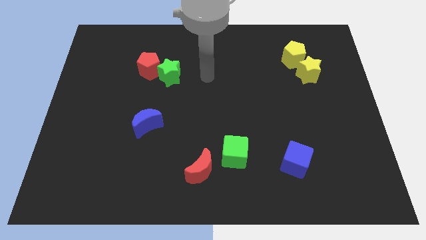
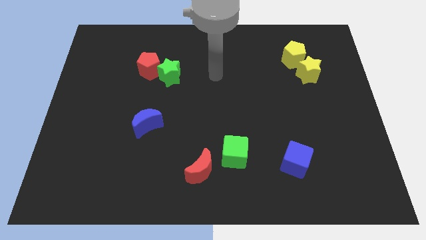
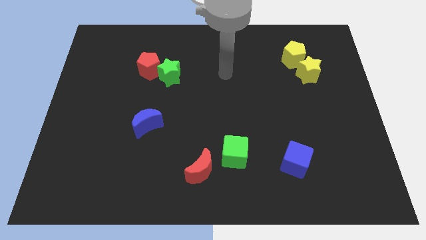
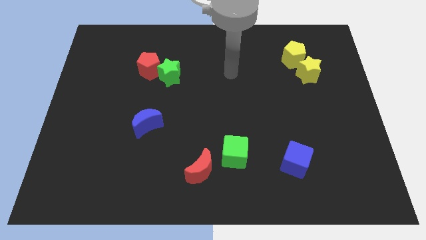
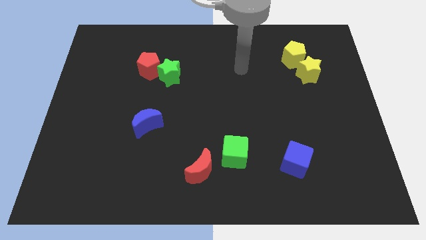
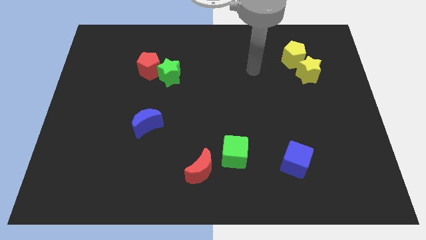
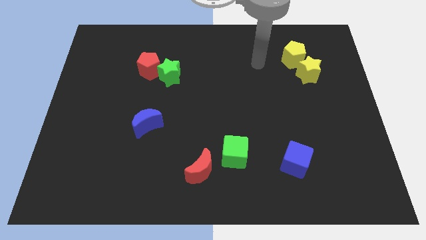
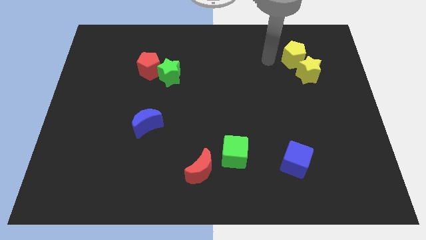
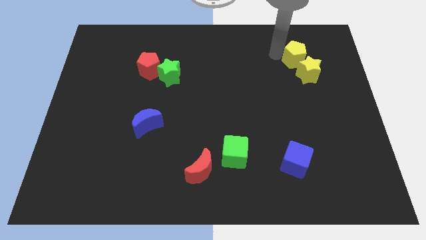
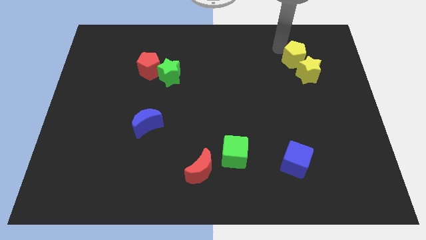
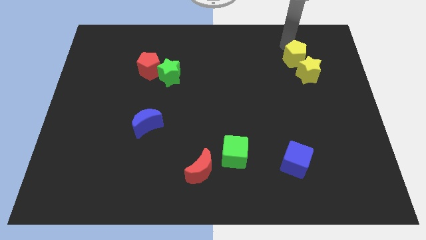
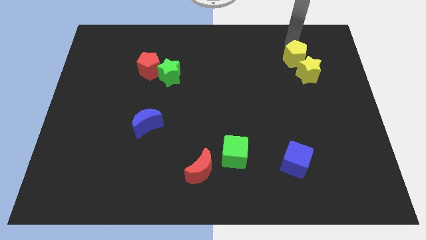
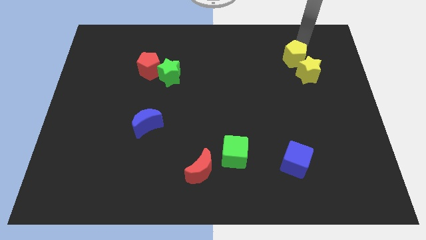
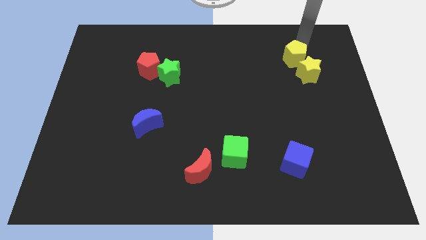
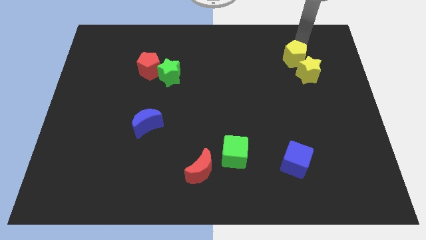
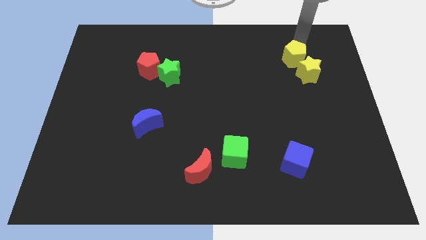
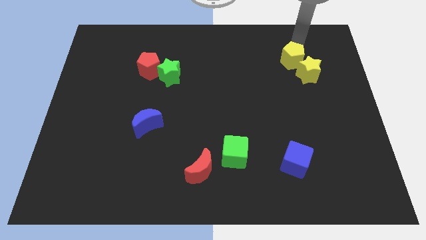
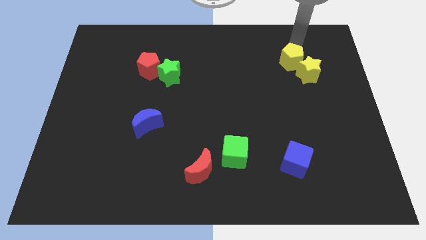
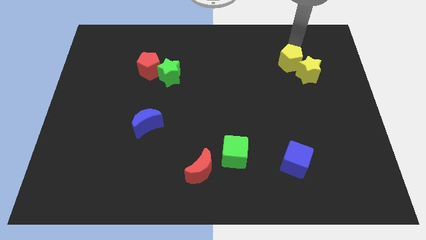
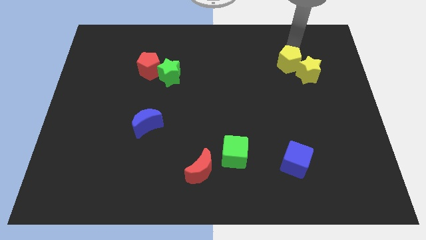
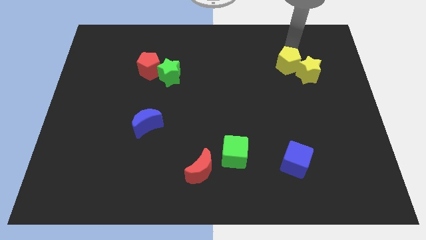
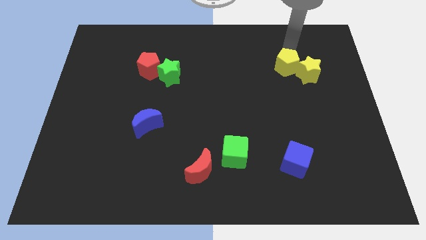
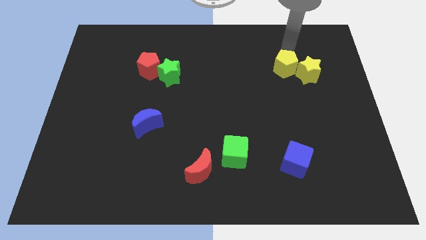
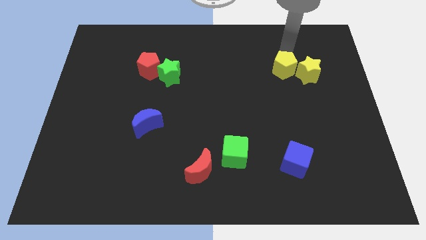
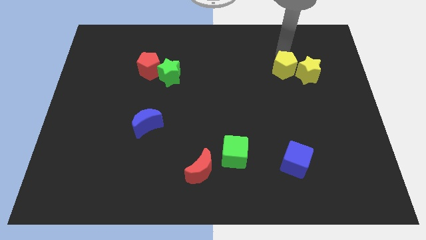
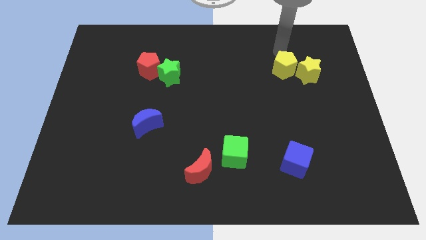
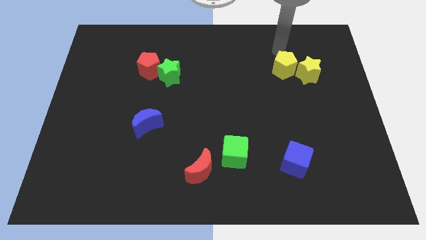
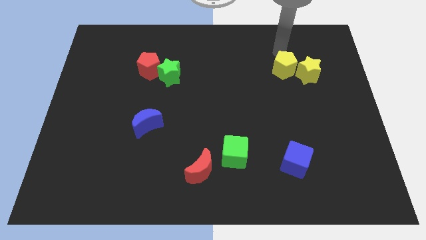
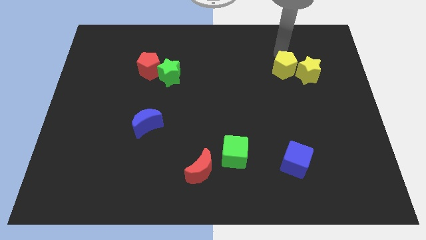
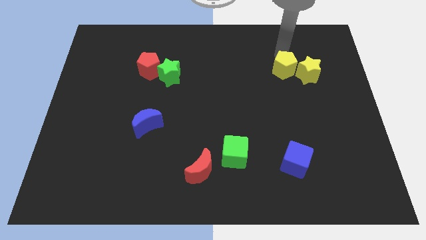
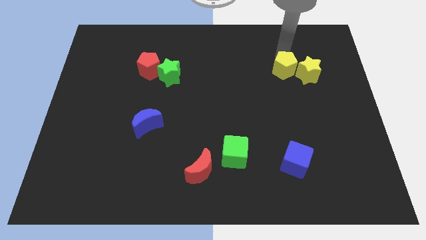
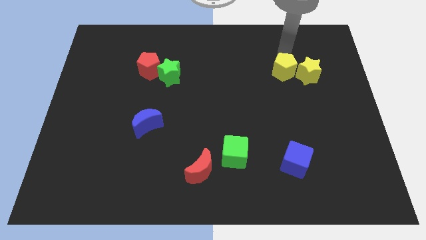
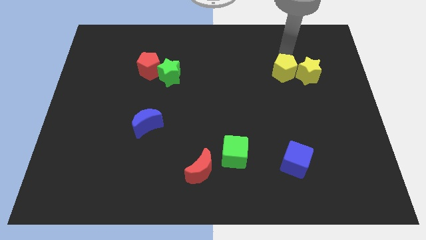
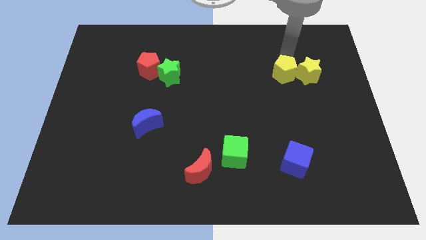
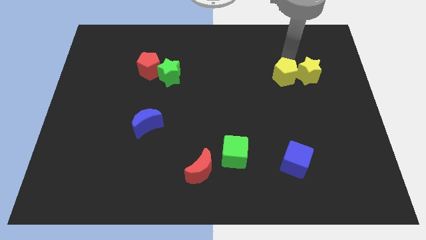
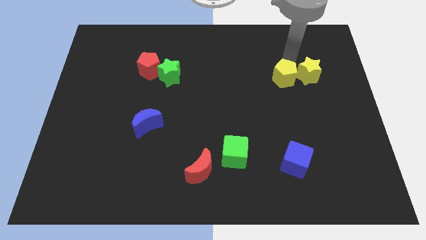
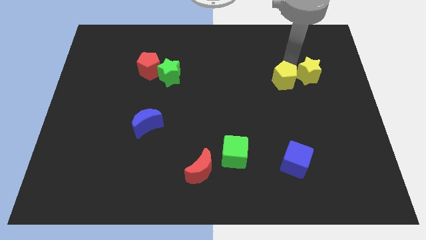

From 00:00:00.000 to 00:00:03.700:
move the yellow pentagon a little bit down

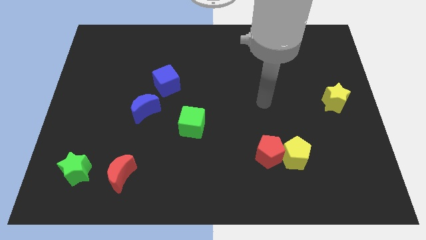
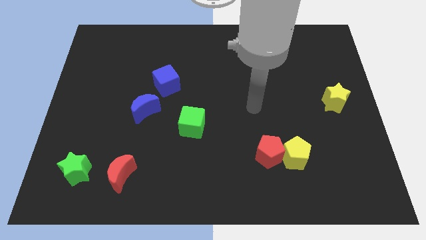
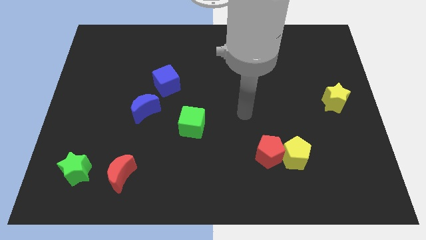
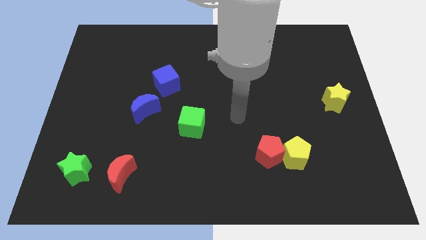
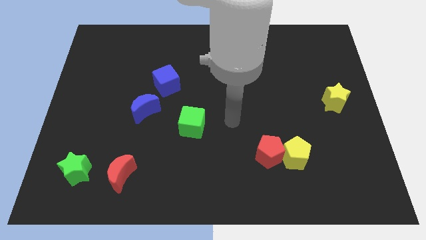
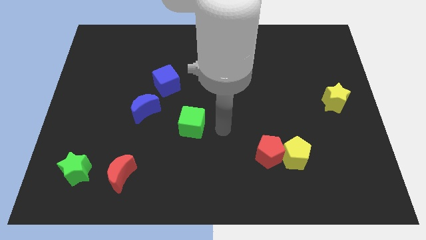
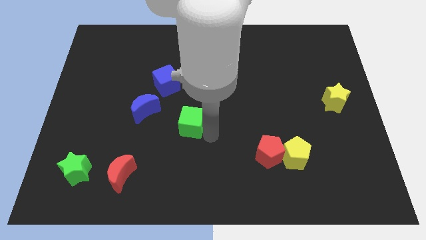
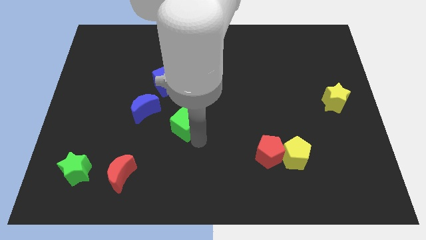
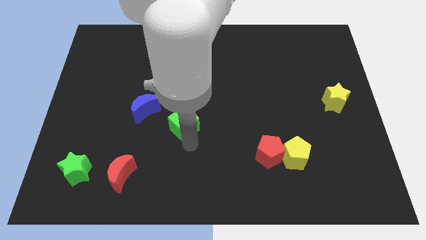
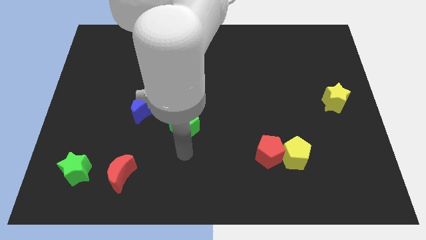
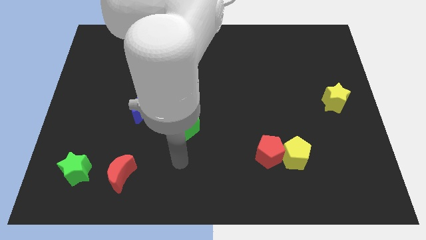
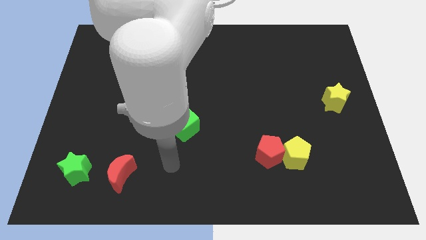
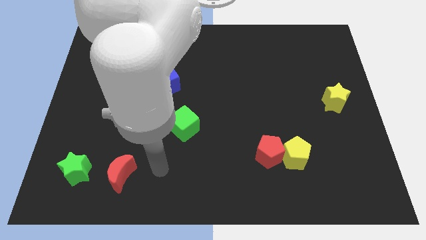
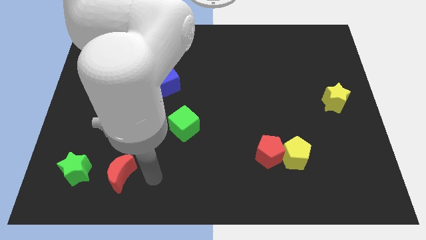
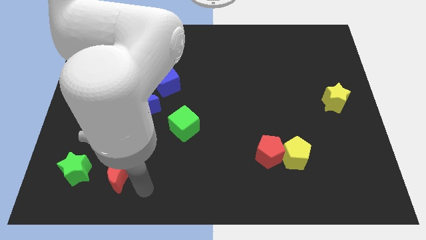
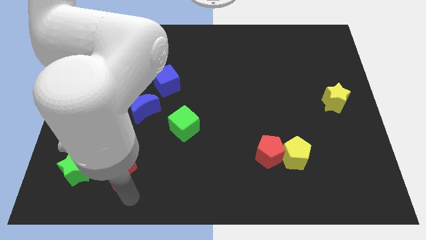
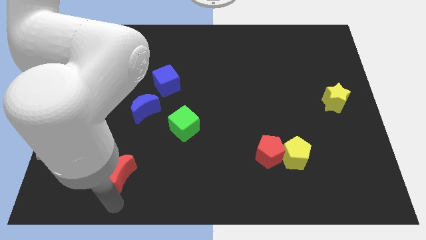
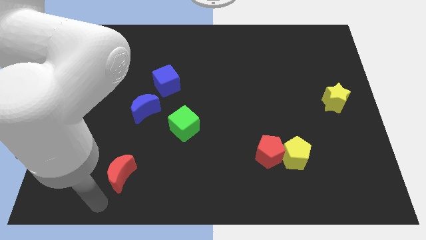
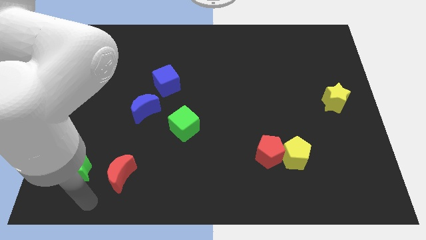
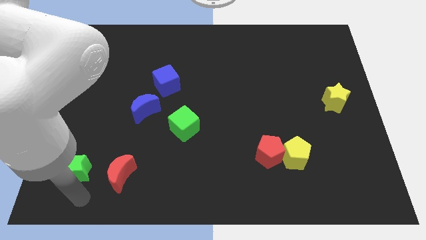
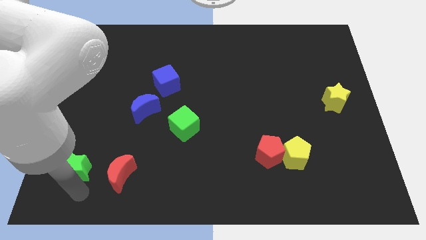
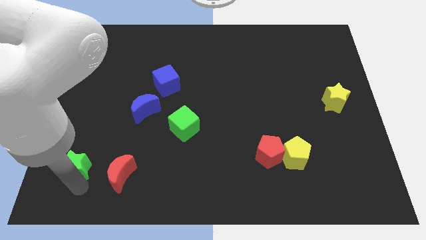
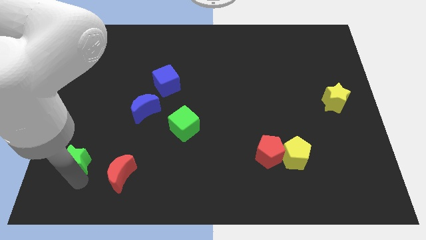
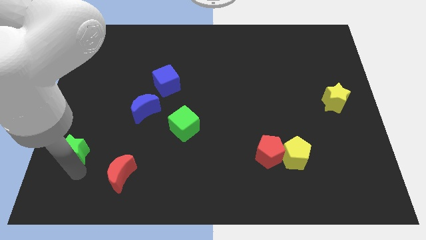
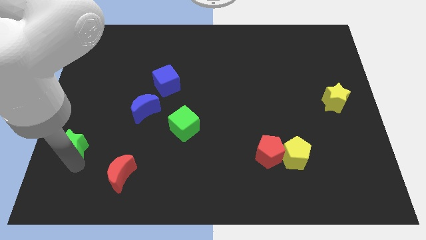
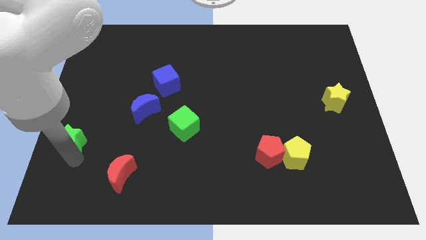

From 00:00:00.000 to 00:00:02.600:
slightly slide the green star up

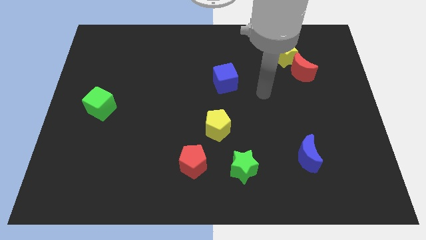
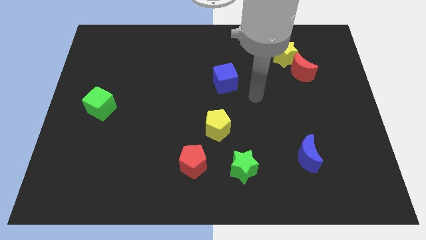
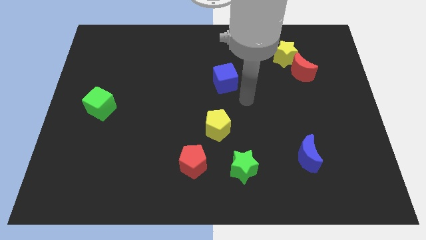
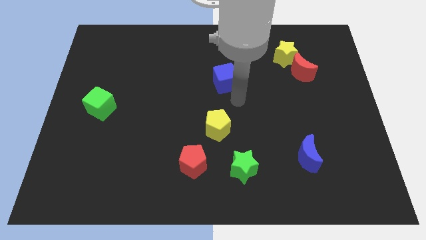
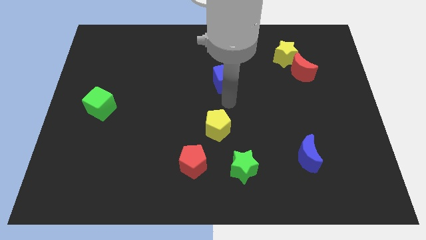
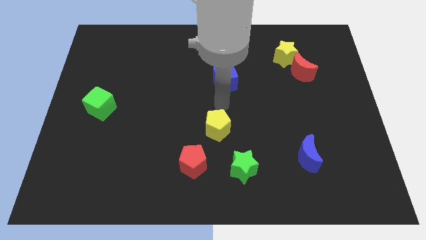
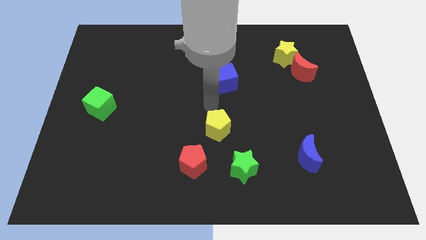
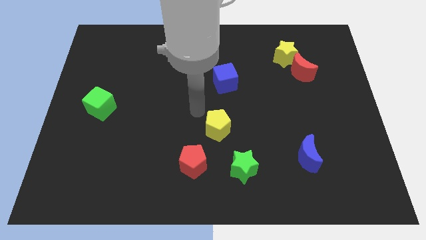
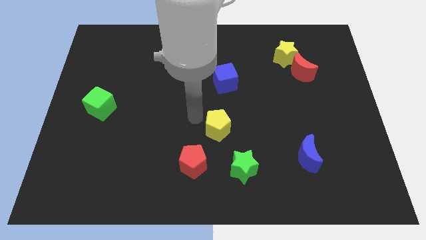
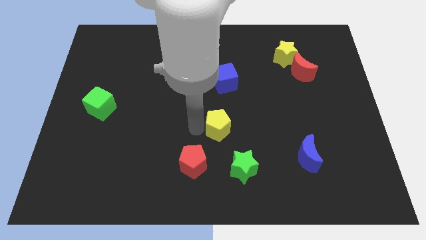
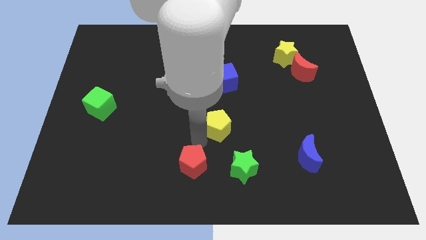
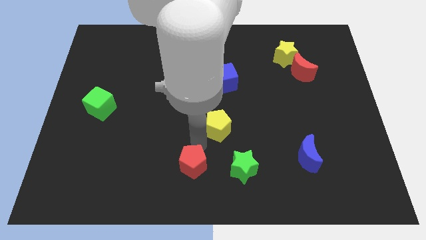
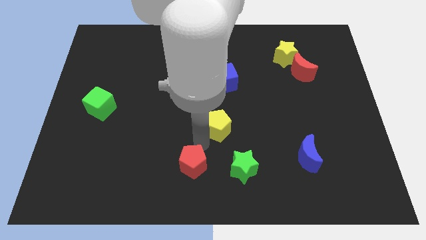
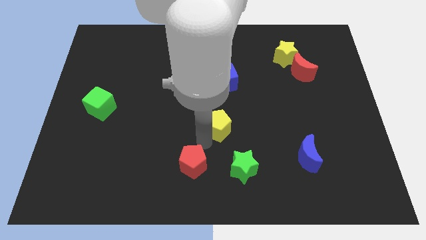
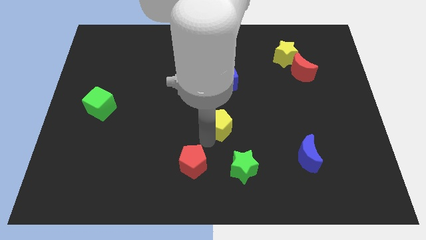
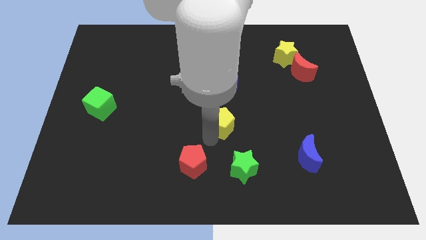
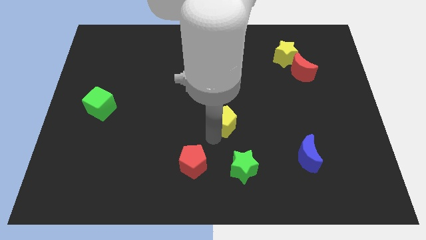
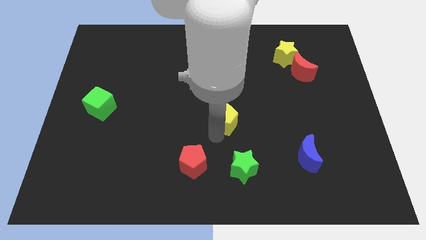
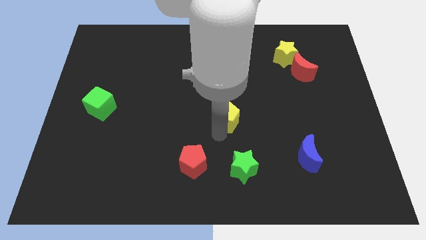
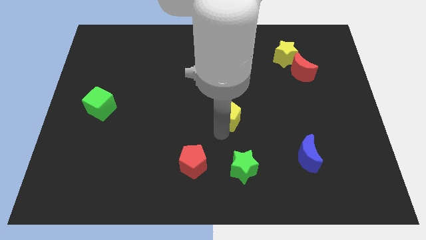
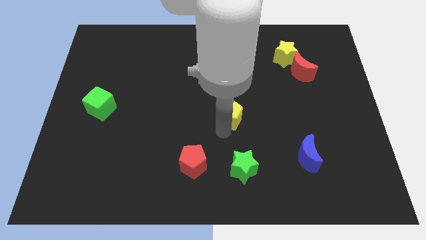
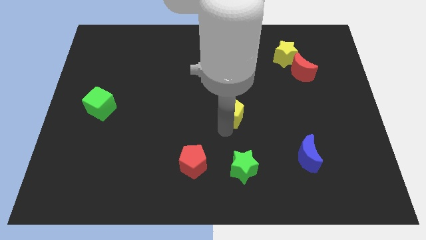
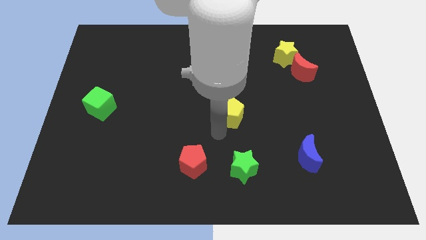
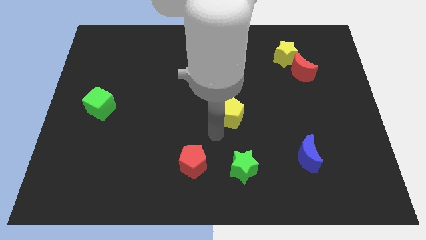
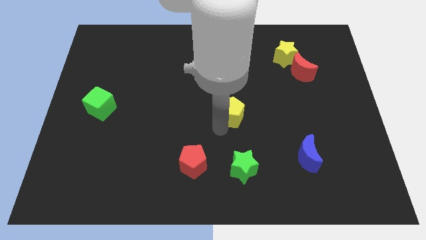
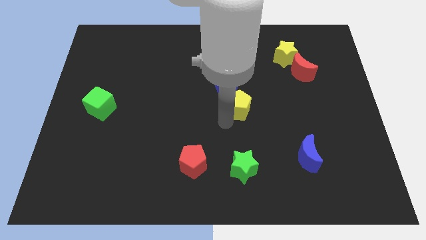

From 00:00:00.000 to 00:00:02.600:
slide the yellow pentagon somewhat up and to the right
